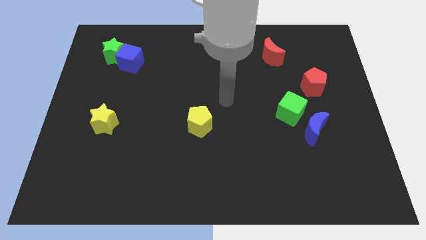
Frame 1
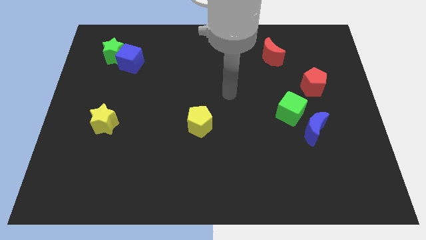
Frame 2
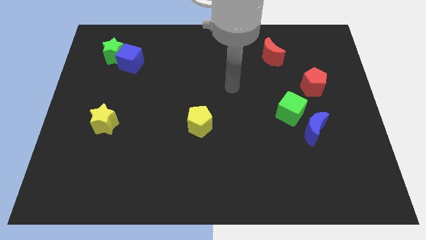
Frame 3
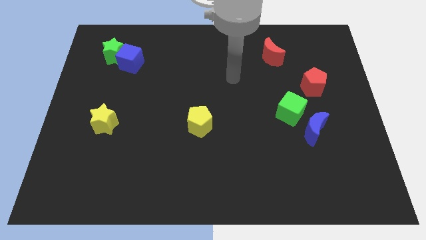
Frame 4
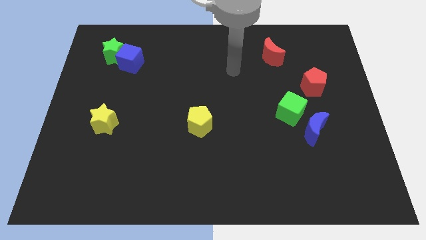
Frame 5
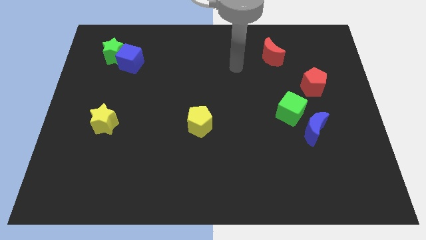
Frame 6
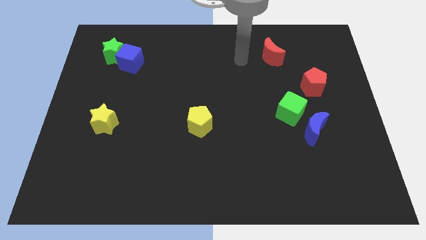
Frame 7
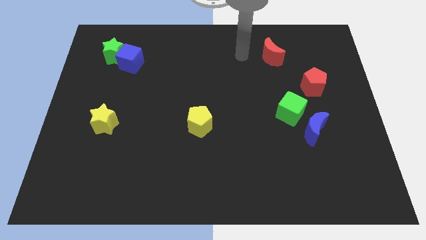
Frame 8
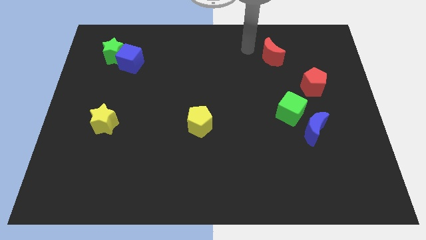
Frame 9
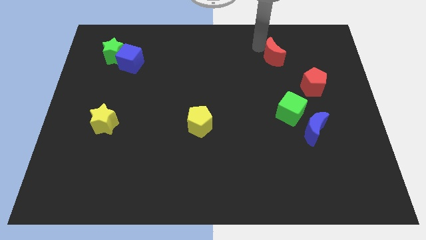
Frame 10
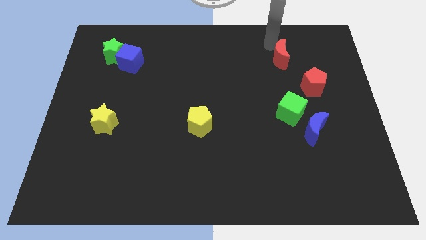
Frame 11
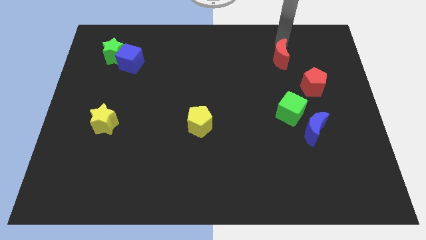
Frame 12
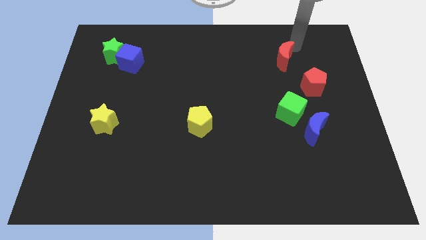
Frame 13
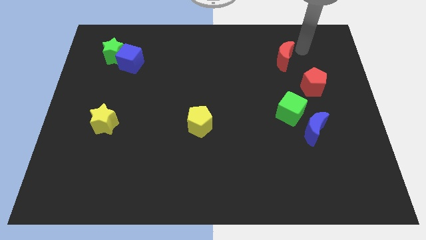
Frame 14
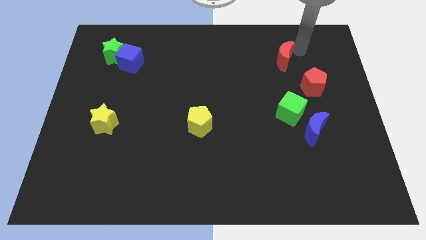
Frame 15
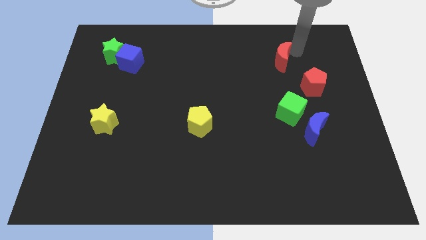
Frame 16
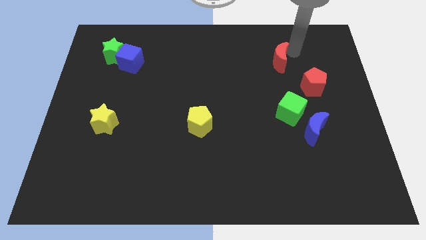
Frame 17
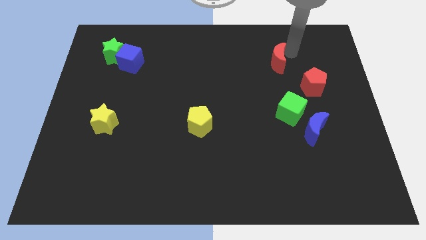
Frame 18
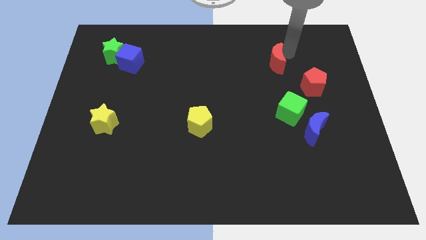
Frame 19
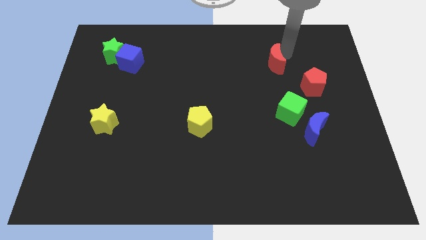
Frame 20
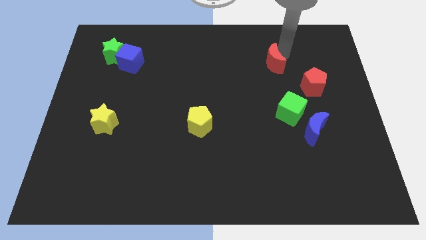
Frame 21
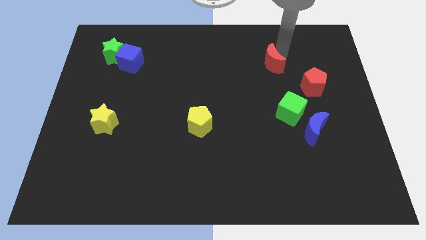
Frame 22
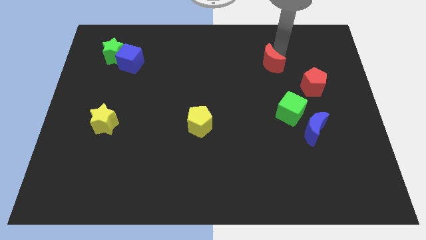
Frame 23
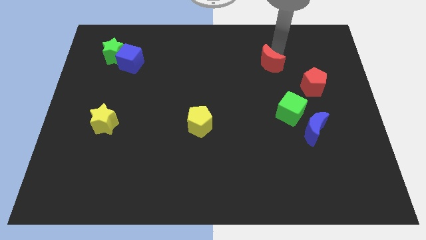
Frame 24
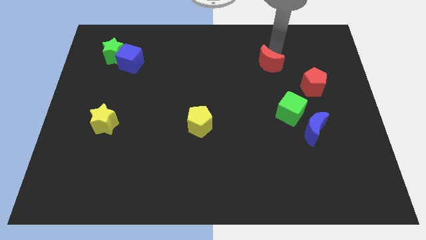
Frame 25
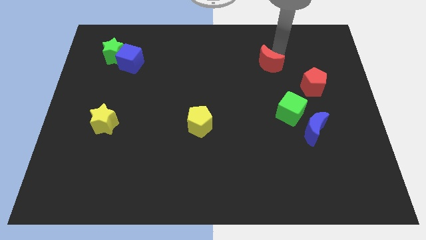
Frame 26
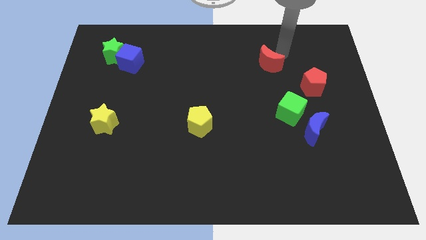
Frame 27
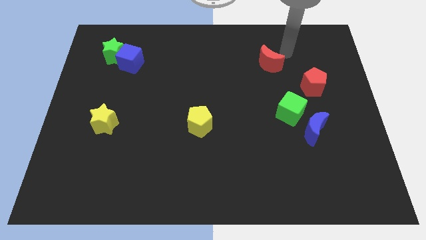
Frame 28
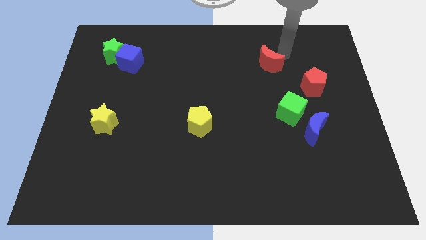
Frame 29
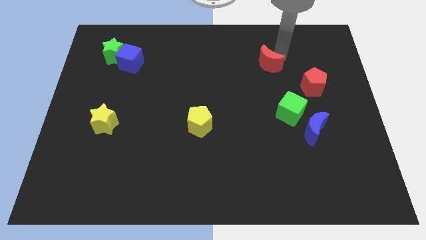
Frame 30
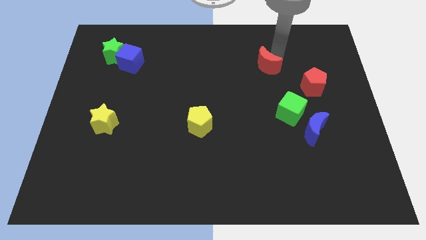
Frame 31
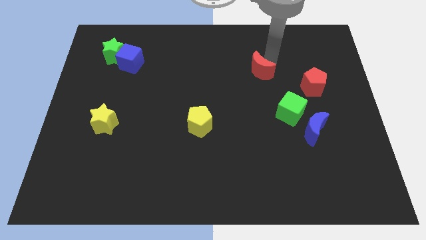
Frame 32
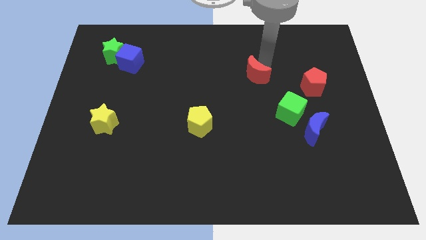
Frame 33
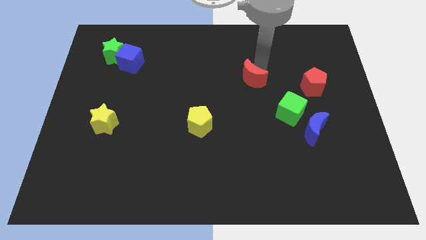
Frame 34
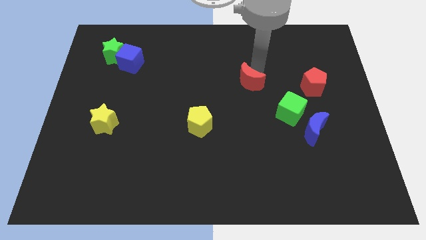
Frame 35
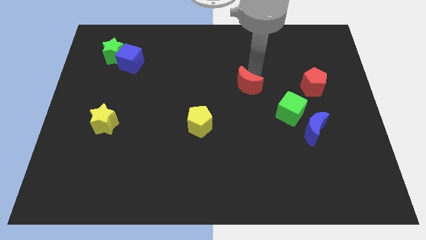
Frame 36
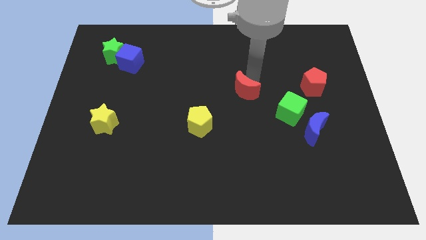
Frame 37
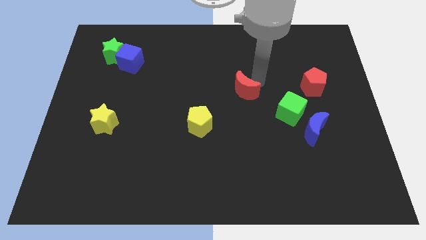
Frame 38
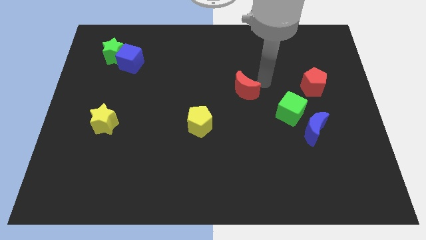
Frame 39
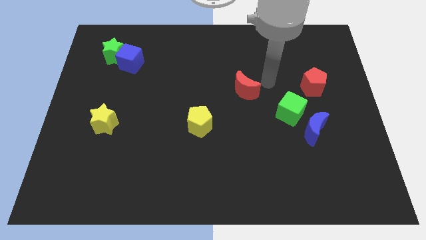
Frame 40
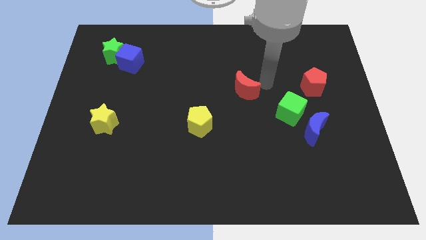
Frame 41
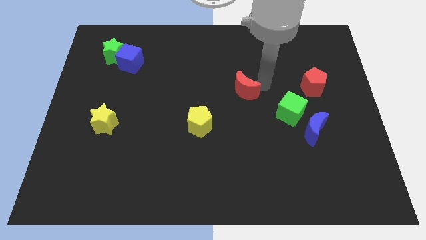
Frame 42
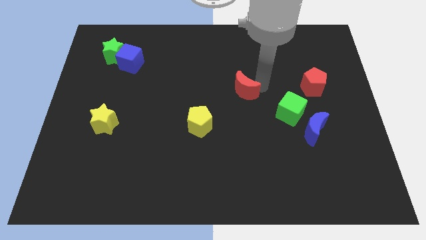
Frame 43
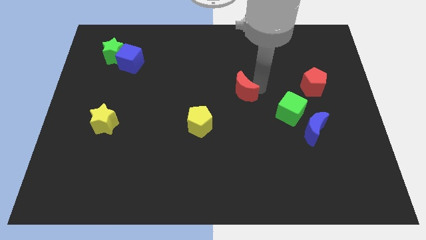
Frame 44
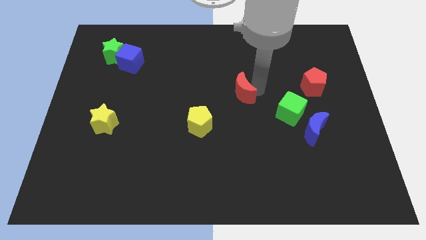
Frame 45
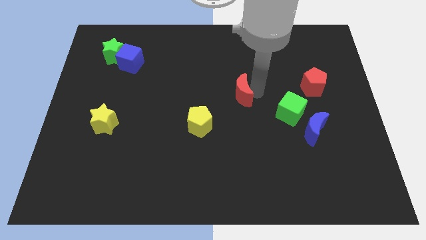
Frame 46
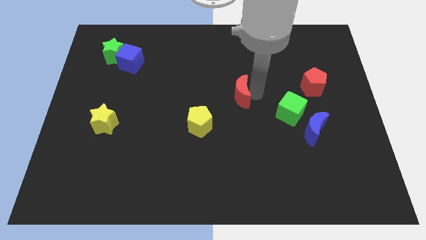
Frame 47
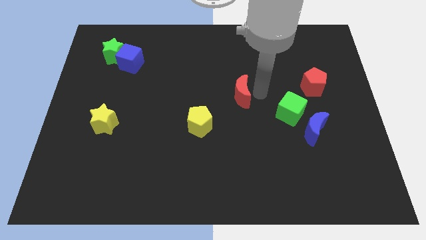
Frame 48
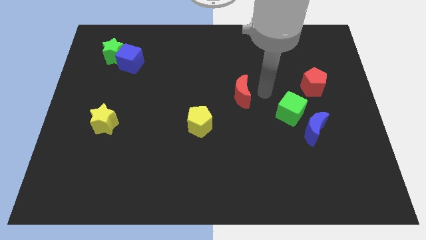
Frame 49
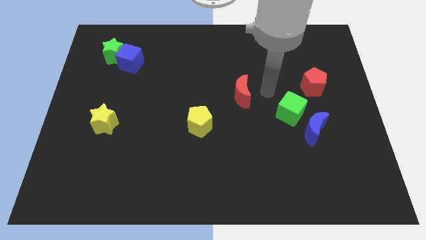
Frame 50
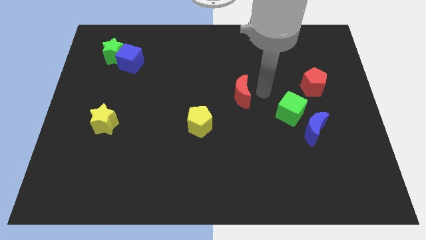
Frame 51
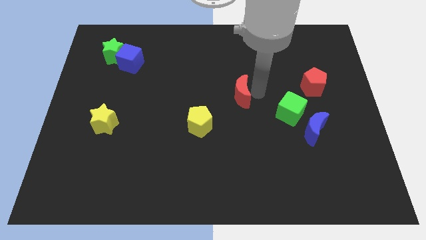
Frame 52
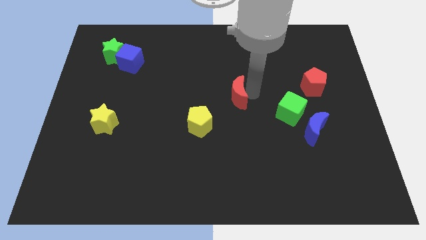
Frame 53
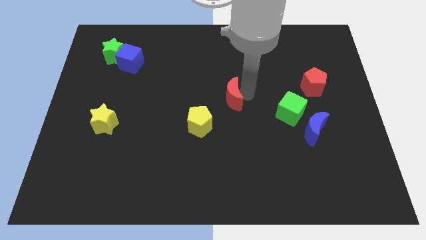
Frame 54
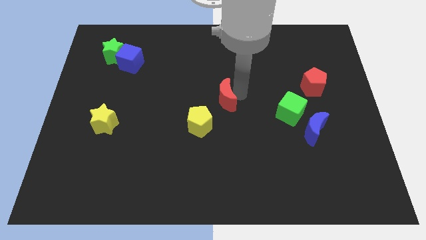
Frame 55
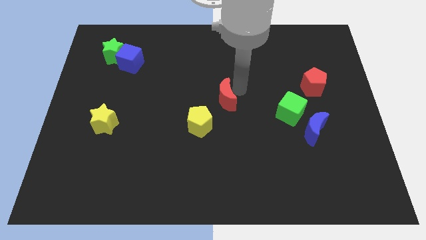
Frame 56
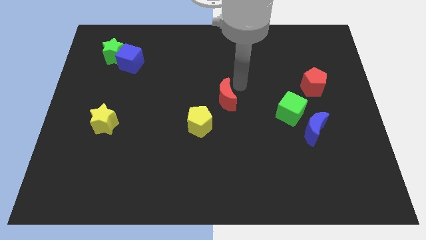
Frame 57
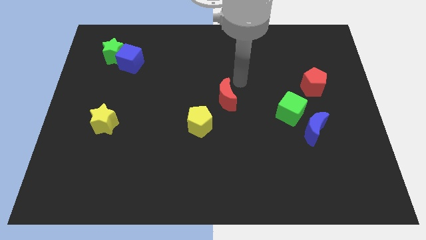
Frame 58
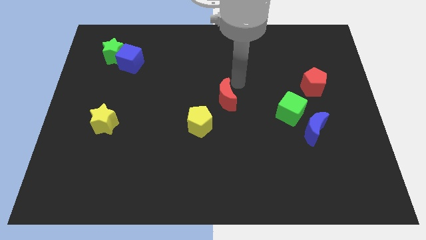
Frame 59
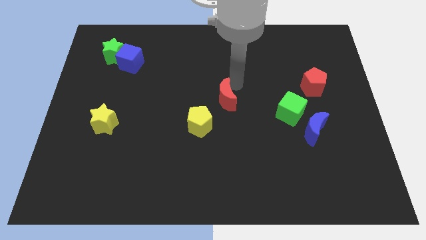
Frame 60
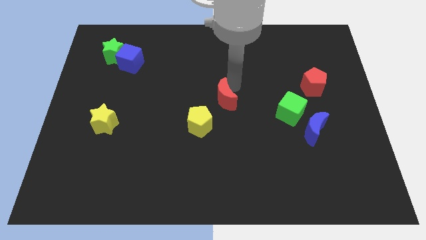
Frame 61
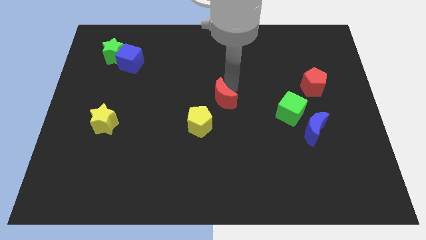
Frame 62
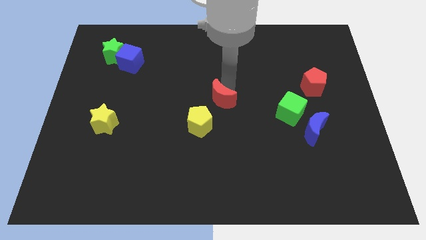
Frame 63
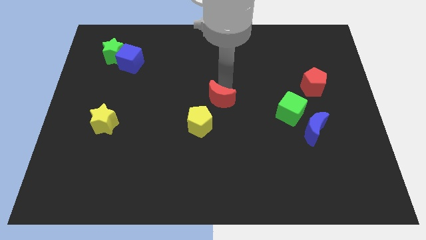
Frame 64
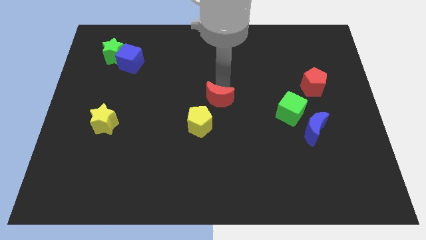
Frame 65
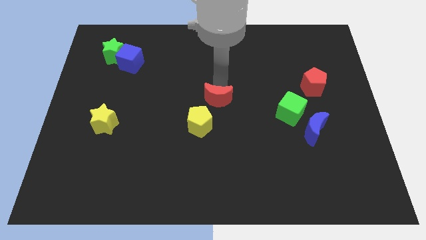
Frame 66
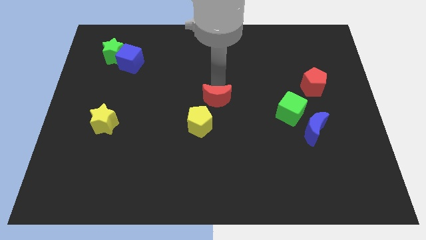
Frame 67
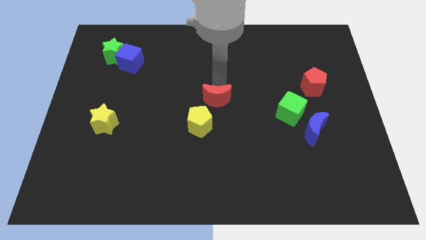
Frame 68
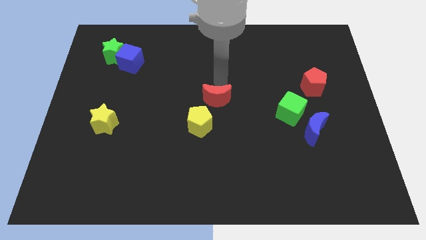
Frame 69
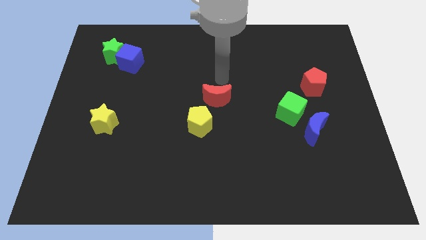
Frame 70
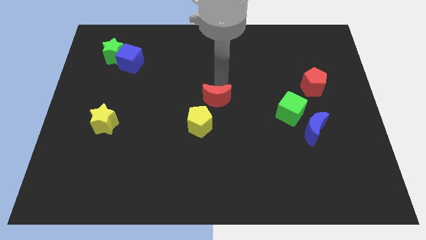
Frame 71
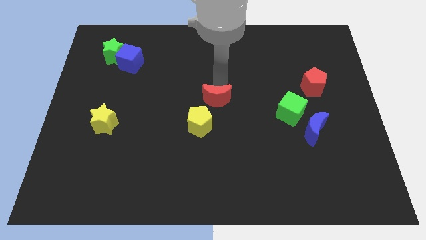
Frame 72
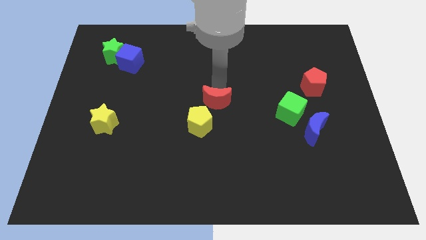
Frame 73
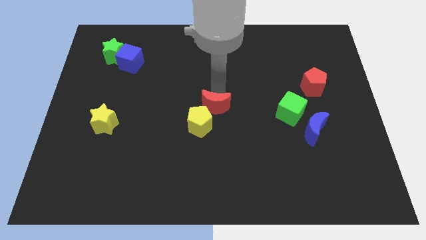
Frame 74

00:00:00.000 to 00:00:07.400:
move the red moon to the yellow pentagon

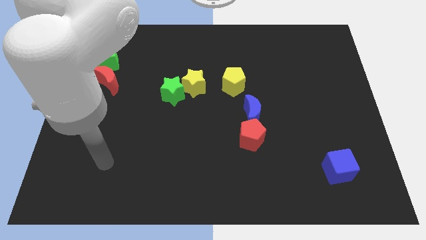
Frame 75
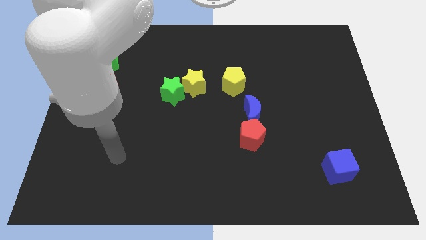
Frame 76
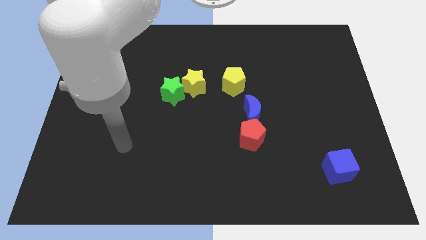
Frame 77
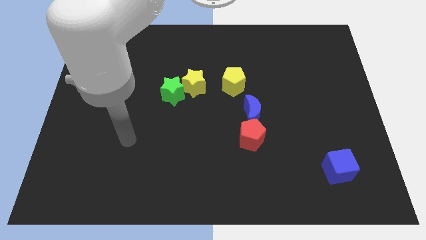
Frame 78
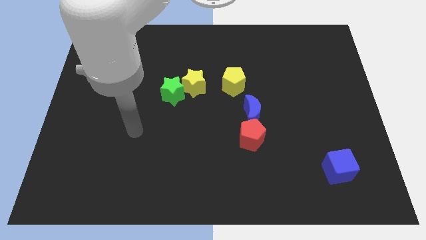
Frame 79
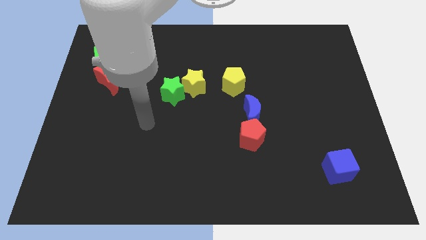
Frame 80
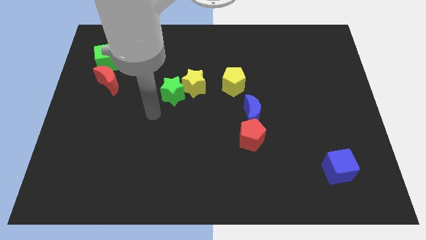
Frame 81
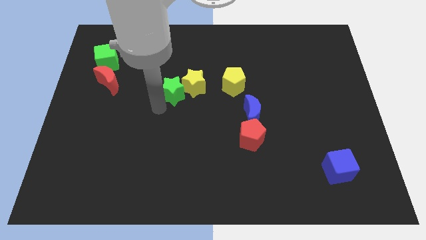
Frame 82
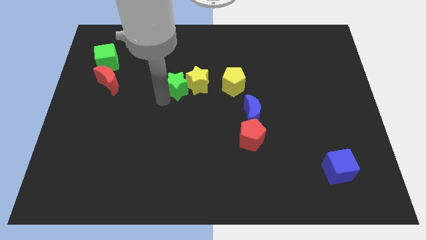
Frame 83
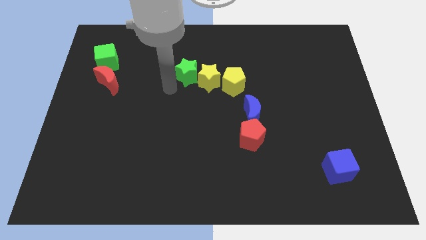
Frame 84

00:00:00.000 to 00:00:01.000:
slide the yellow star close to the yellow pentagon
